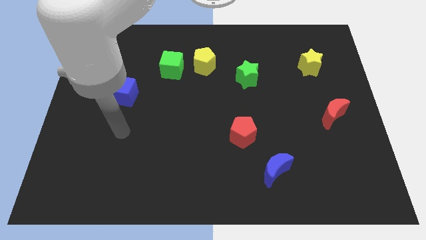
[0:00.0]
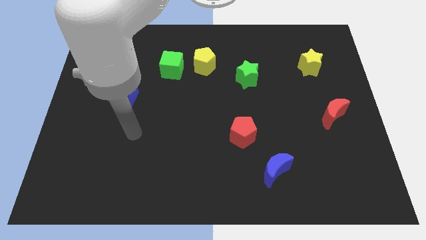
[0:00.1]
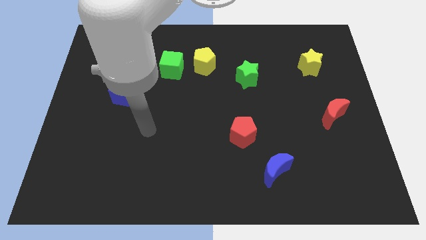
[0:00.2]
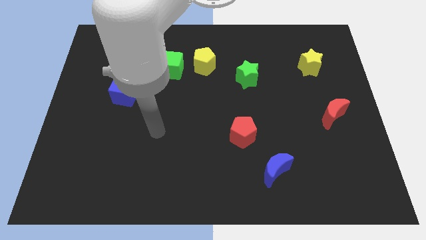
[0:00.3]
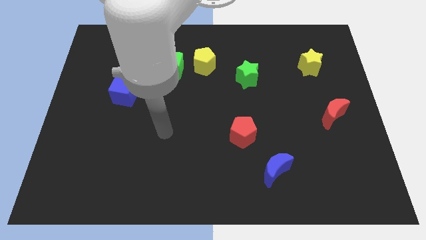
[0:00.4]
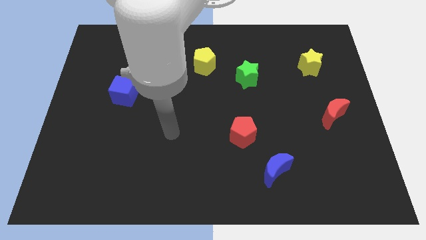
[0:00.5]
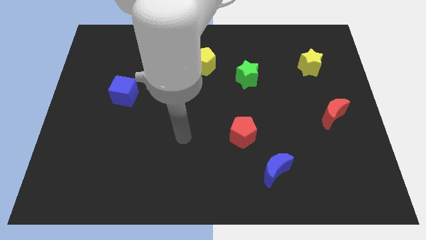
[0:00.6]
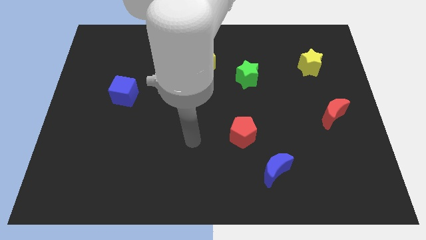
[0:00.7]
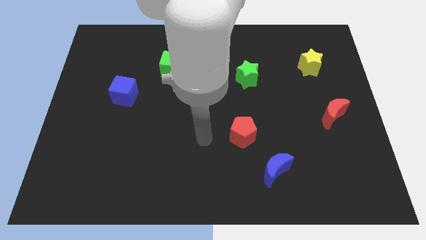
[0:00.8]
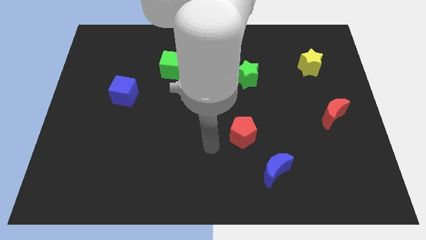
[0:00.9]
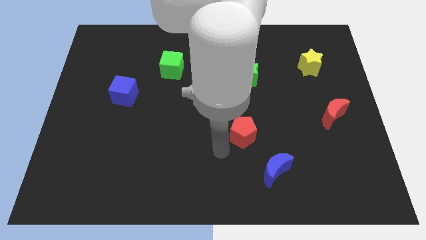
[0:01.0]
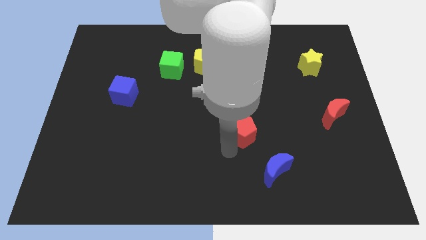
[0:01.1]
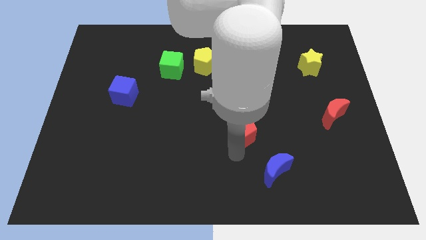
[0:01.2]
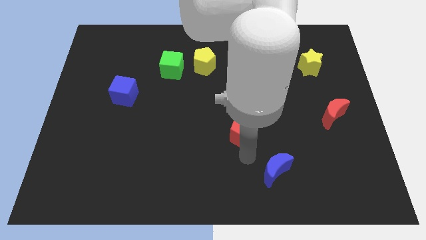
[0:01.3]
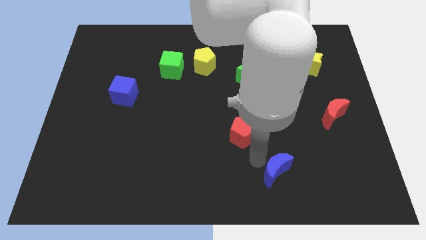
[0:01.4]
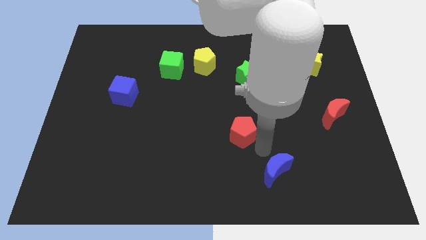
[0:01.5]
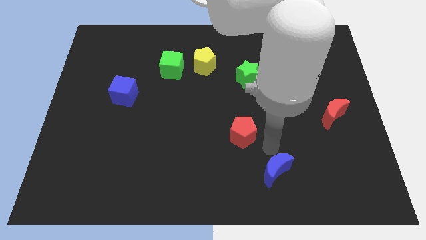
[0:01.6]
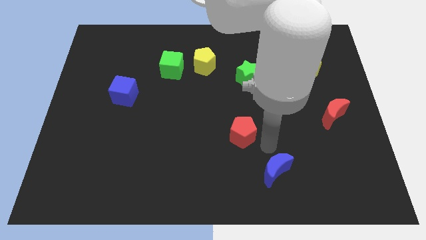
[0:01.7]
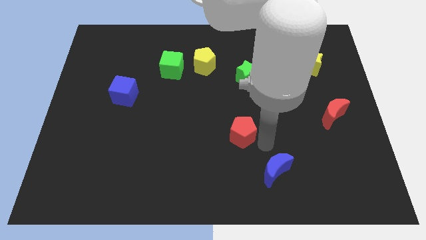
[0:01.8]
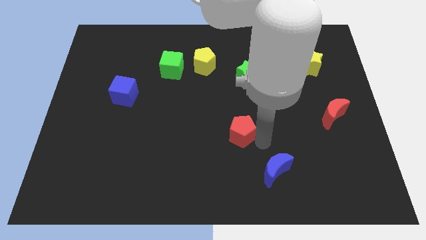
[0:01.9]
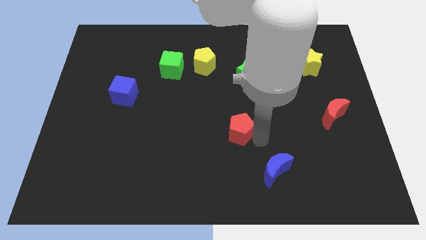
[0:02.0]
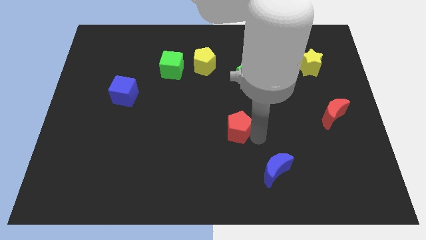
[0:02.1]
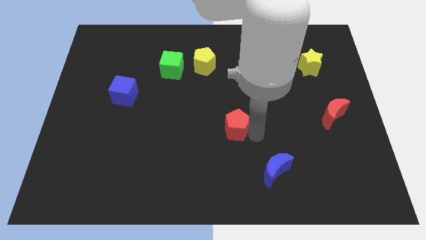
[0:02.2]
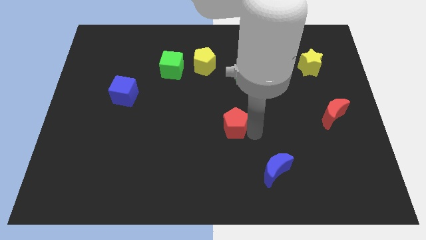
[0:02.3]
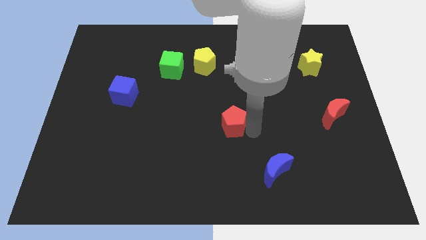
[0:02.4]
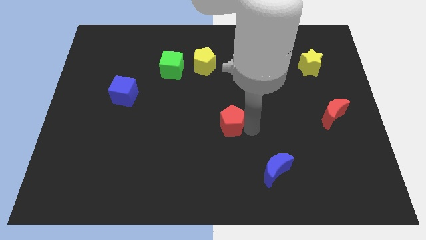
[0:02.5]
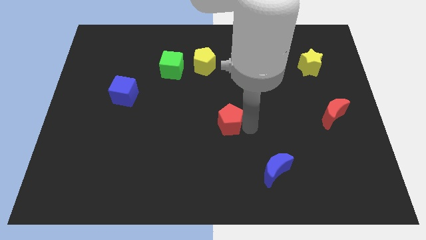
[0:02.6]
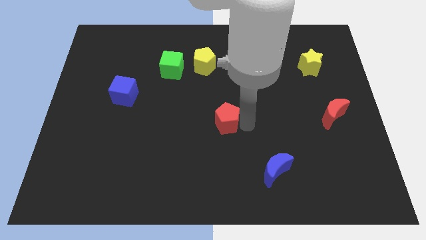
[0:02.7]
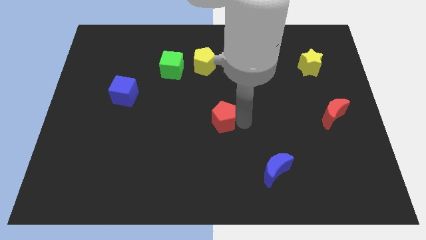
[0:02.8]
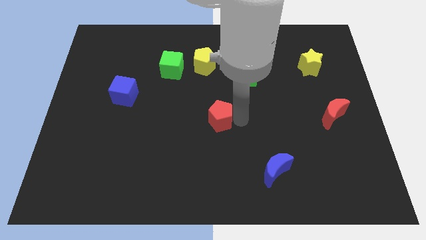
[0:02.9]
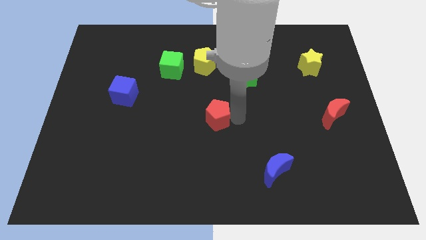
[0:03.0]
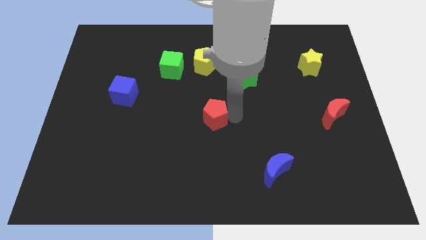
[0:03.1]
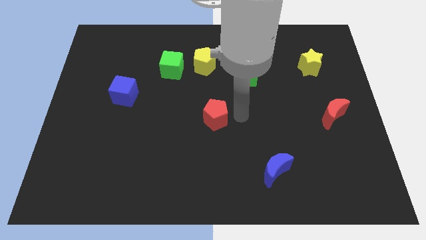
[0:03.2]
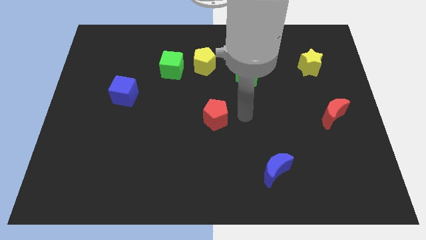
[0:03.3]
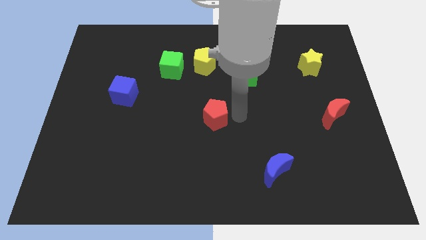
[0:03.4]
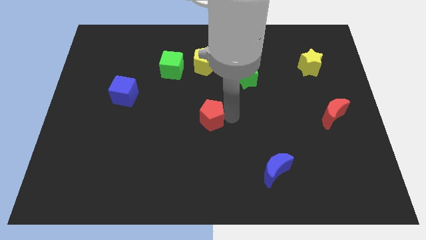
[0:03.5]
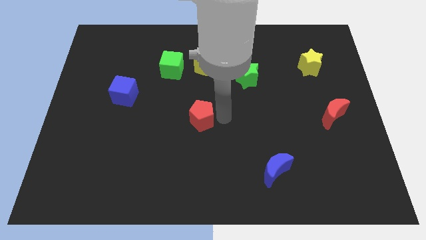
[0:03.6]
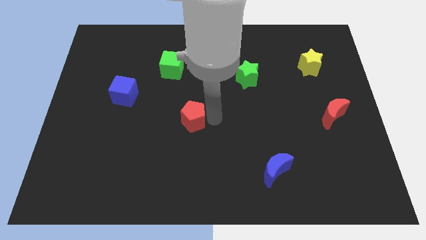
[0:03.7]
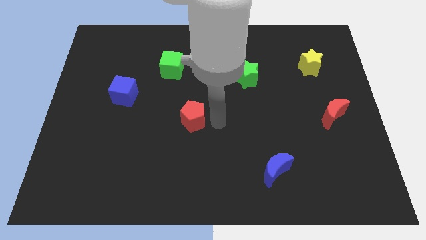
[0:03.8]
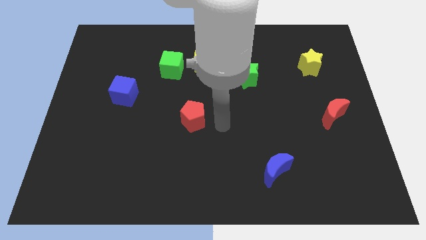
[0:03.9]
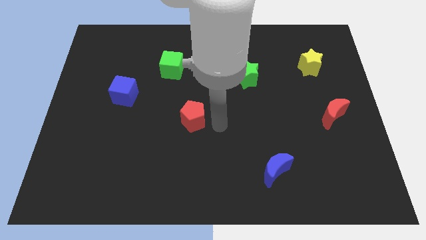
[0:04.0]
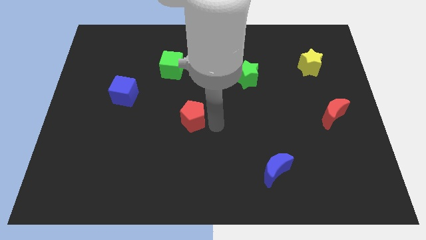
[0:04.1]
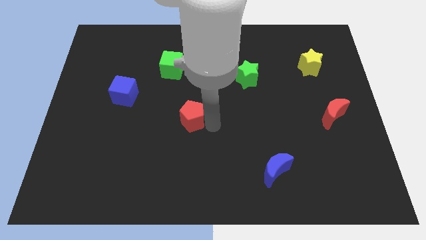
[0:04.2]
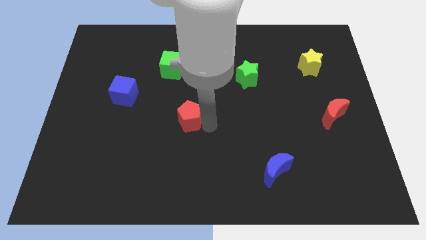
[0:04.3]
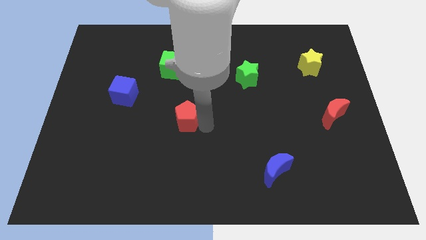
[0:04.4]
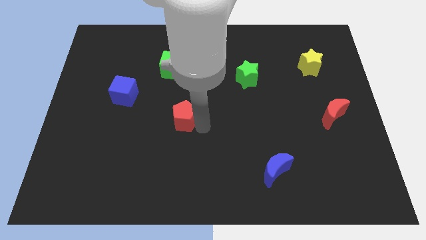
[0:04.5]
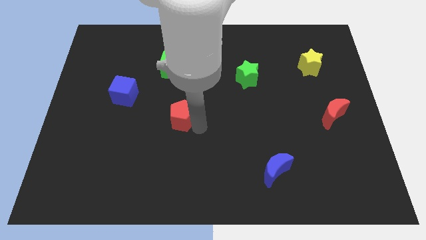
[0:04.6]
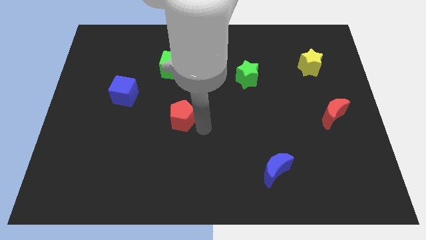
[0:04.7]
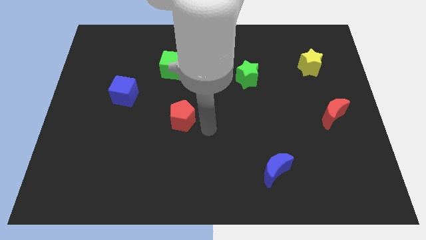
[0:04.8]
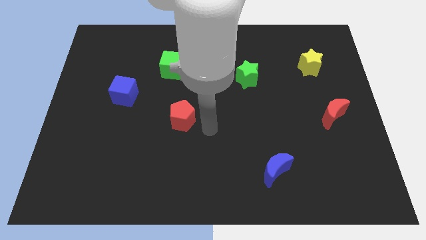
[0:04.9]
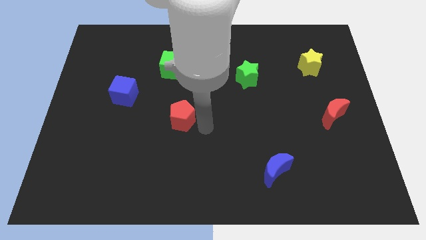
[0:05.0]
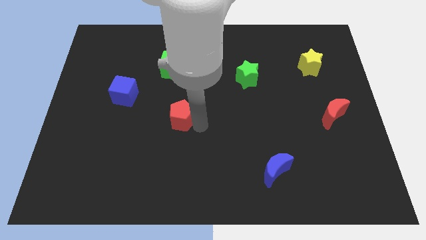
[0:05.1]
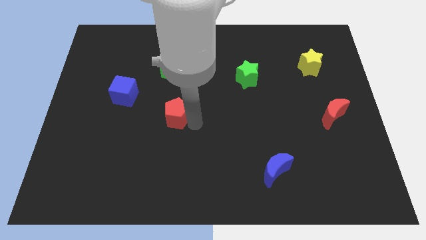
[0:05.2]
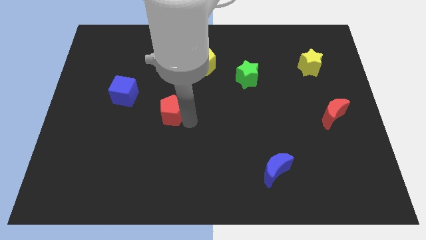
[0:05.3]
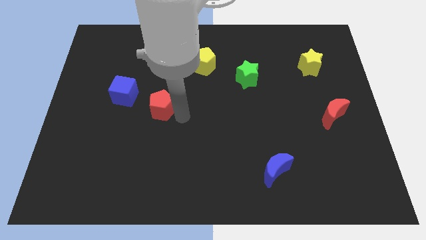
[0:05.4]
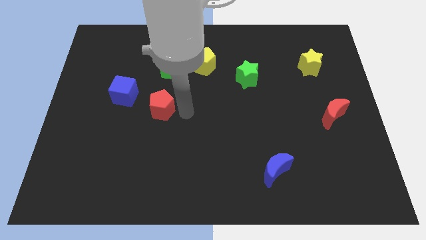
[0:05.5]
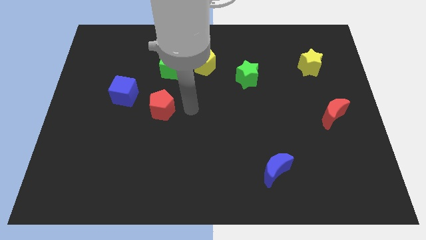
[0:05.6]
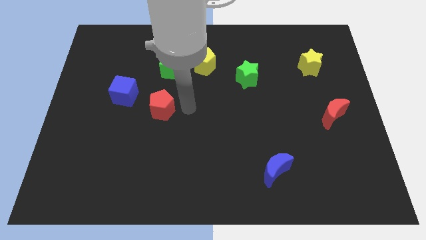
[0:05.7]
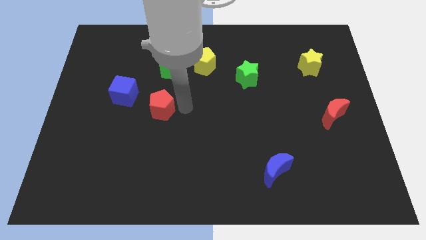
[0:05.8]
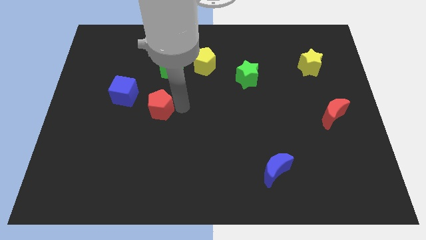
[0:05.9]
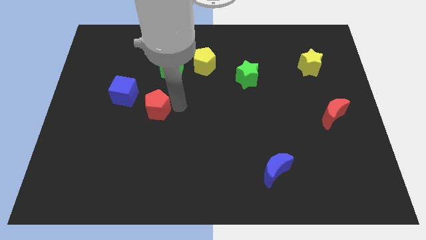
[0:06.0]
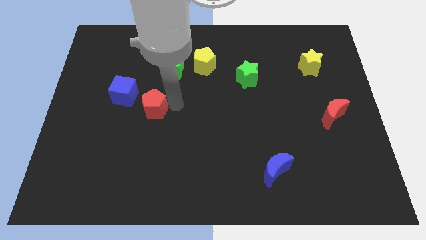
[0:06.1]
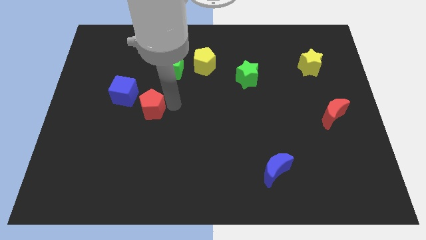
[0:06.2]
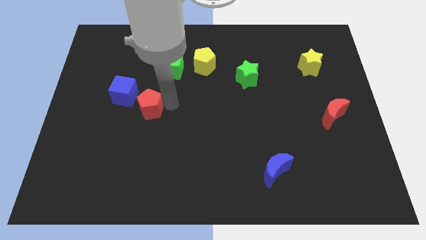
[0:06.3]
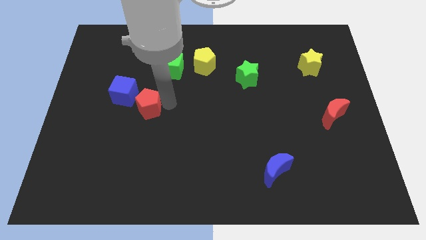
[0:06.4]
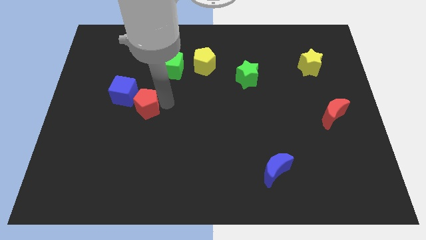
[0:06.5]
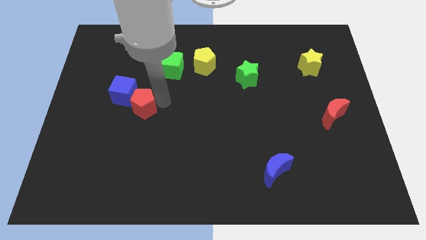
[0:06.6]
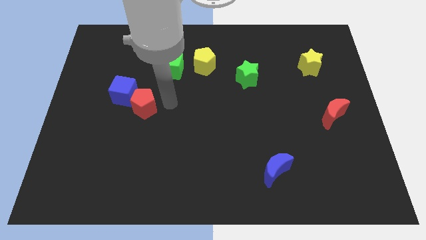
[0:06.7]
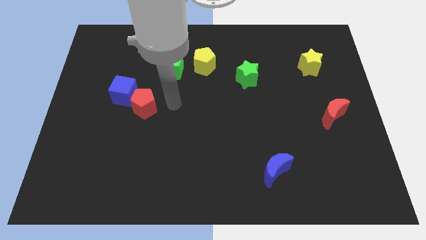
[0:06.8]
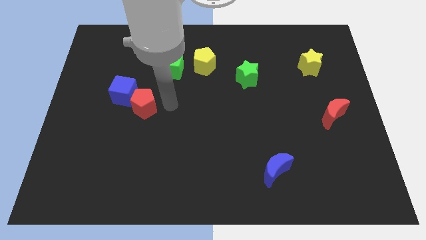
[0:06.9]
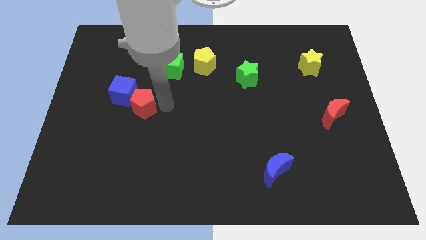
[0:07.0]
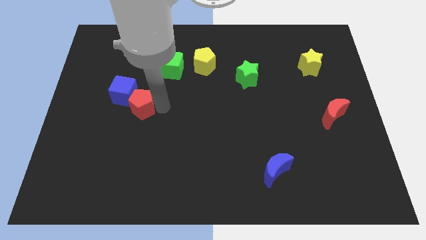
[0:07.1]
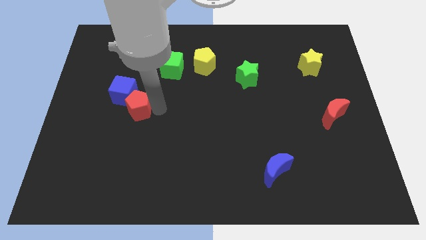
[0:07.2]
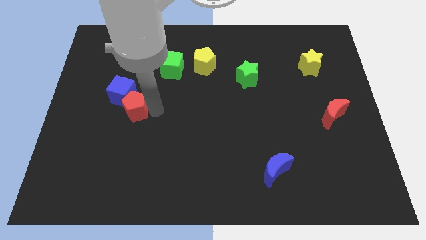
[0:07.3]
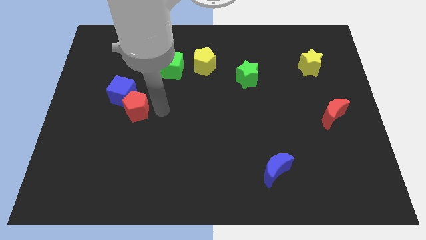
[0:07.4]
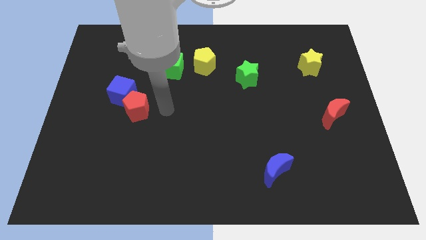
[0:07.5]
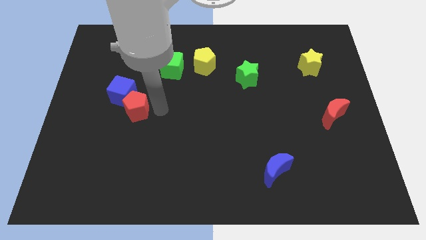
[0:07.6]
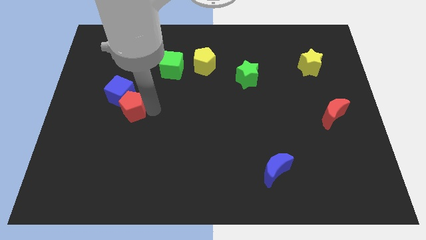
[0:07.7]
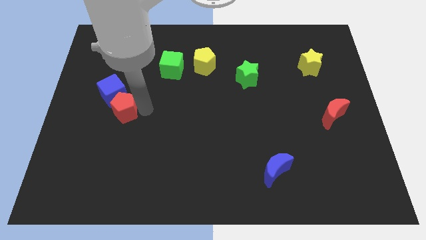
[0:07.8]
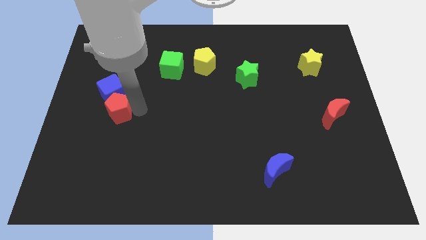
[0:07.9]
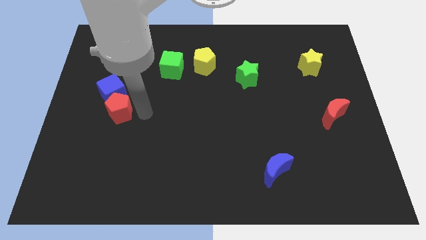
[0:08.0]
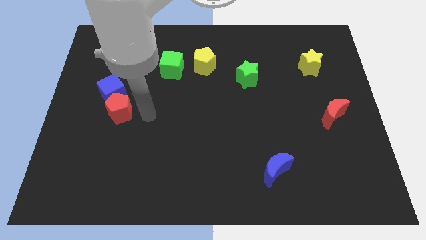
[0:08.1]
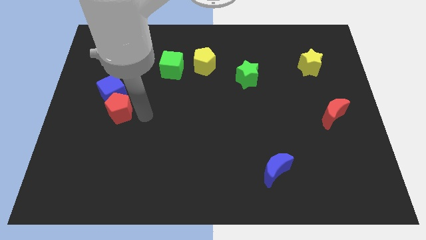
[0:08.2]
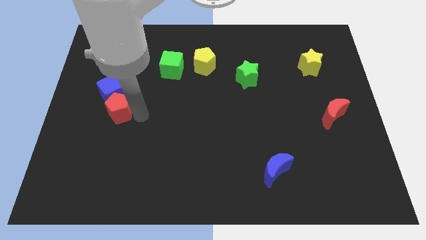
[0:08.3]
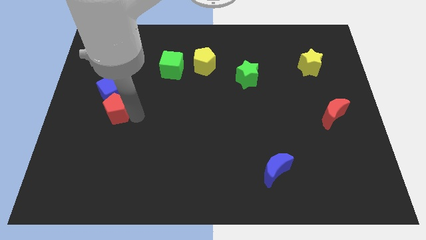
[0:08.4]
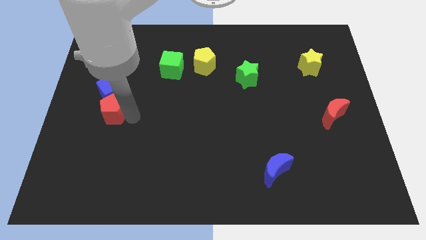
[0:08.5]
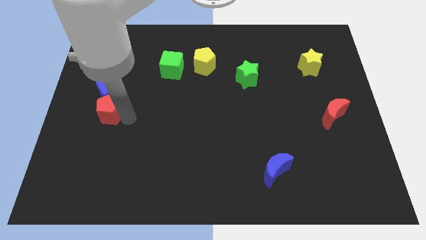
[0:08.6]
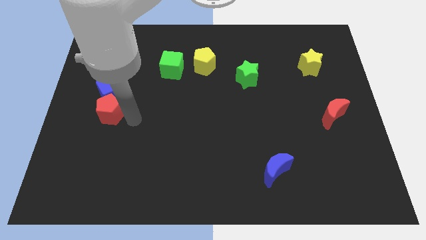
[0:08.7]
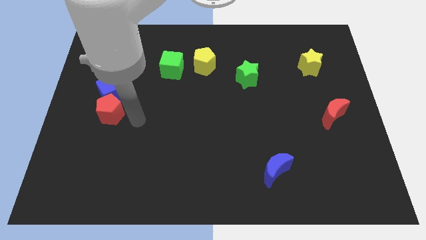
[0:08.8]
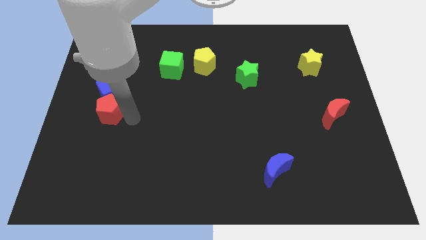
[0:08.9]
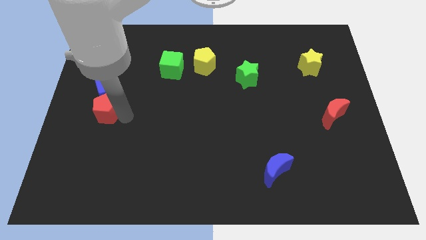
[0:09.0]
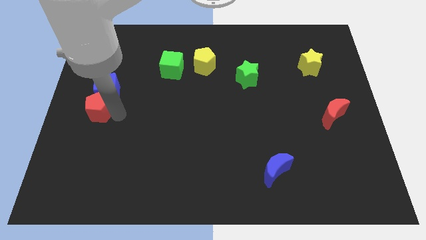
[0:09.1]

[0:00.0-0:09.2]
put the red pentagon to the left side of the board
